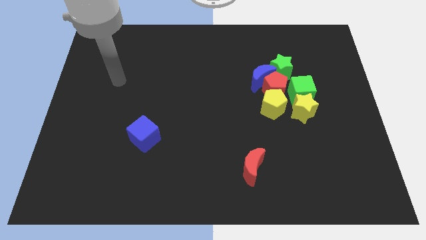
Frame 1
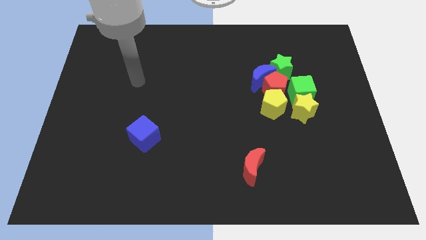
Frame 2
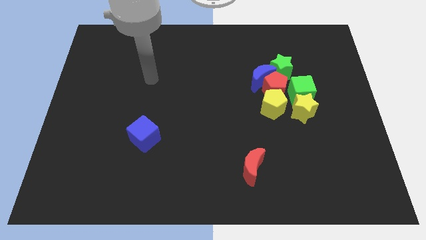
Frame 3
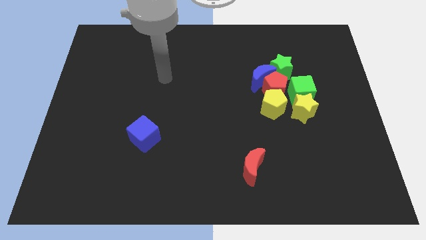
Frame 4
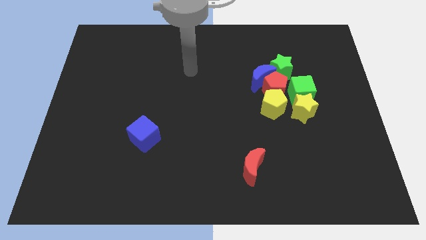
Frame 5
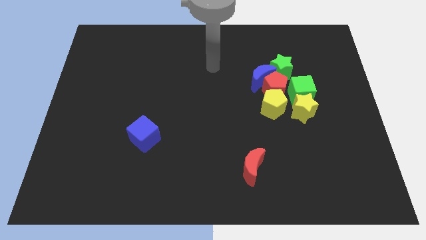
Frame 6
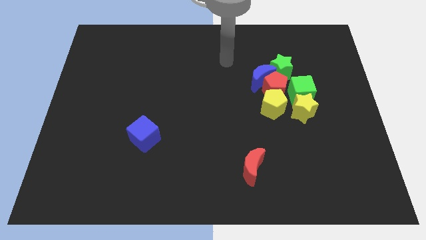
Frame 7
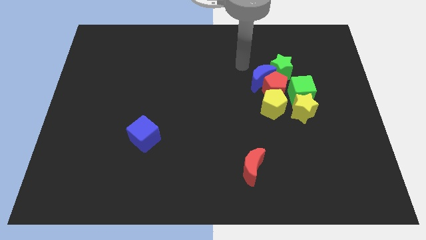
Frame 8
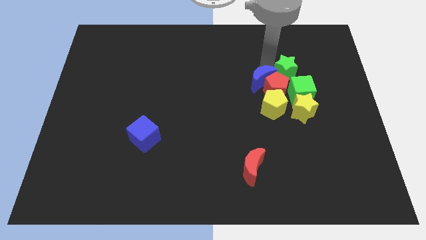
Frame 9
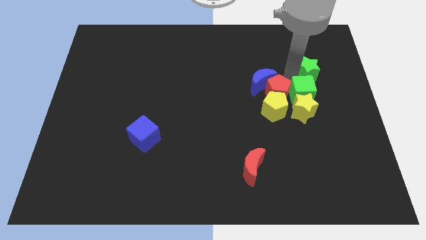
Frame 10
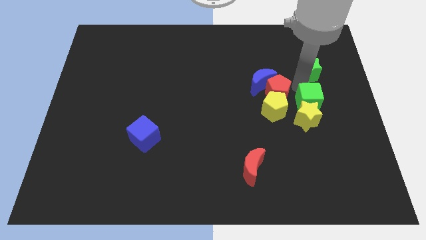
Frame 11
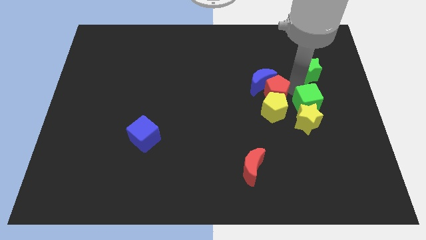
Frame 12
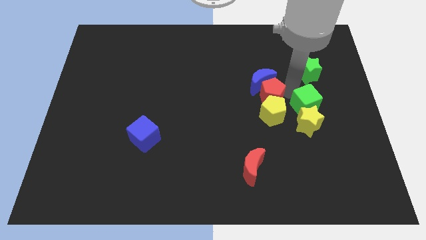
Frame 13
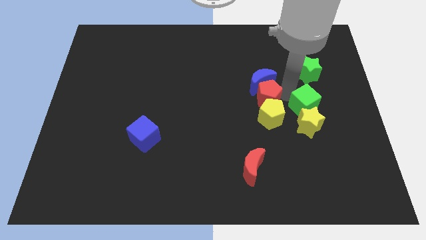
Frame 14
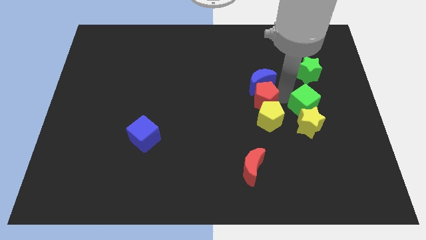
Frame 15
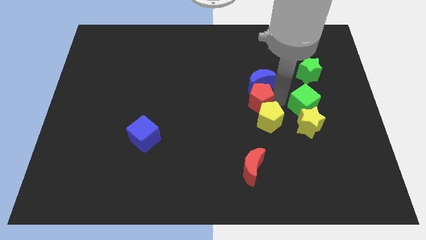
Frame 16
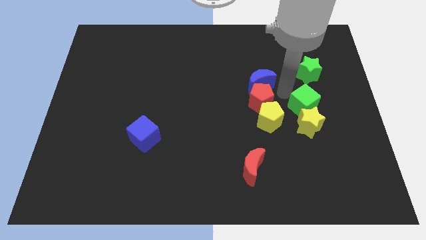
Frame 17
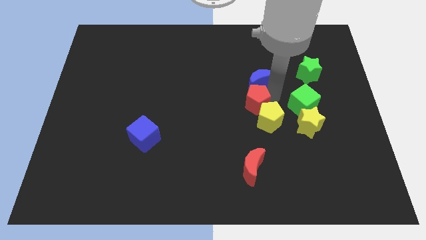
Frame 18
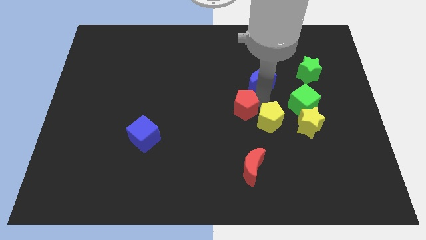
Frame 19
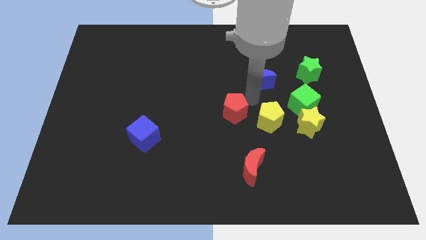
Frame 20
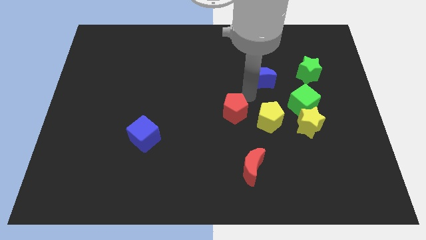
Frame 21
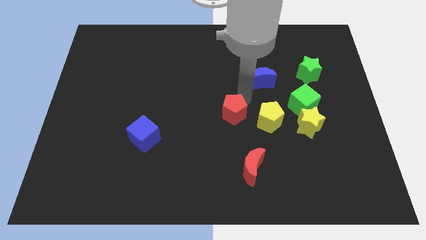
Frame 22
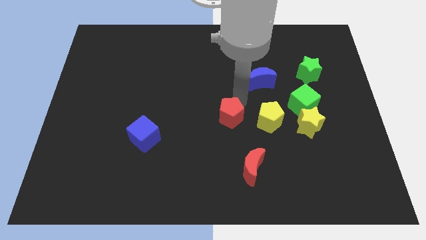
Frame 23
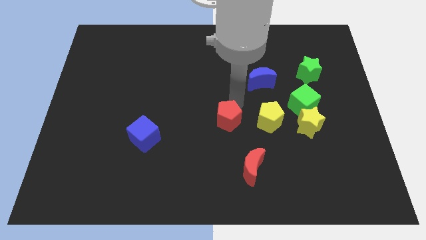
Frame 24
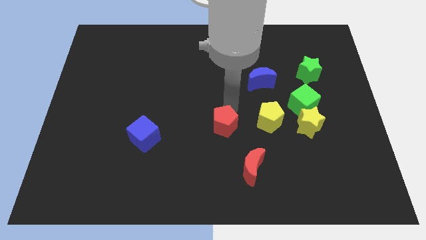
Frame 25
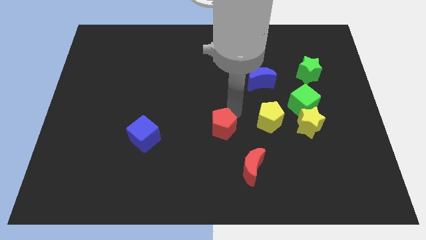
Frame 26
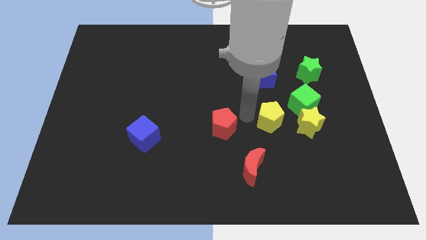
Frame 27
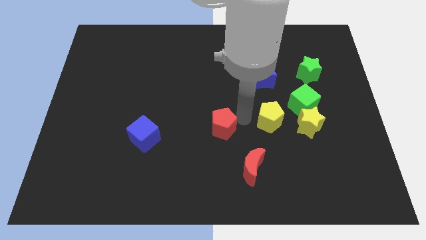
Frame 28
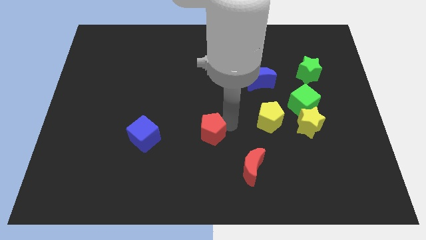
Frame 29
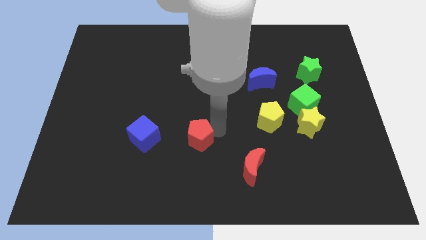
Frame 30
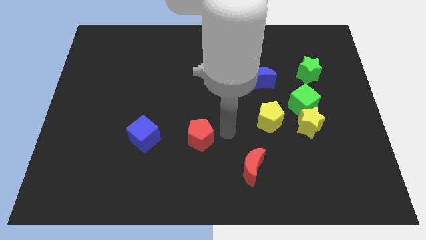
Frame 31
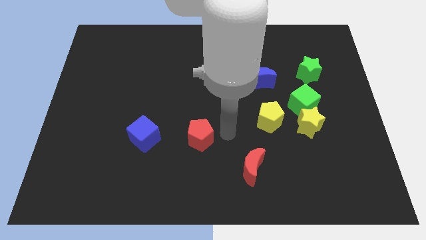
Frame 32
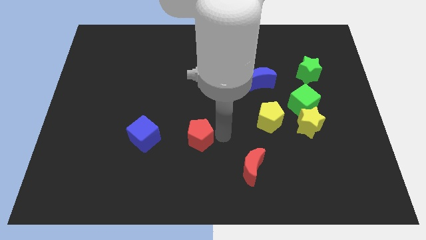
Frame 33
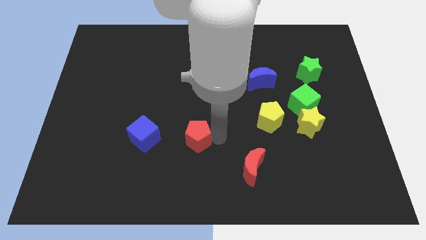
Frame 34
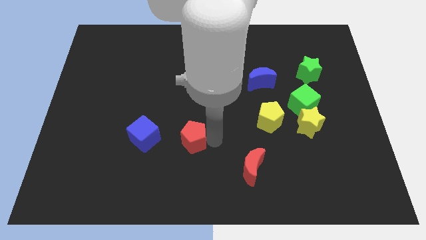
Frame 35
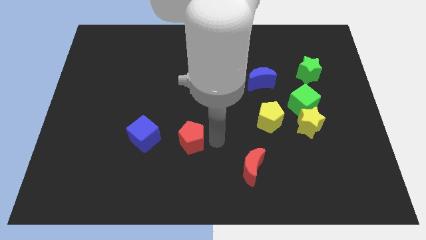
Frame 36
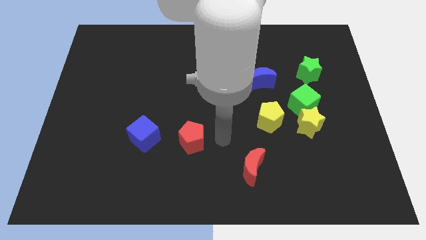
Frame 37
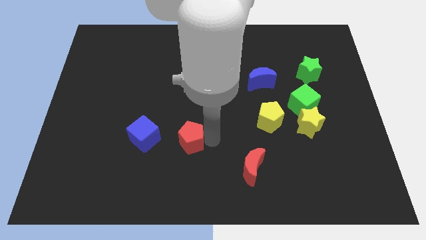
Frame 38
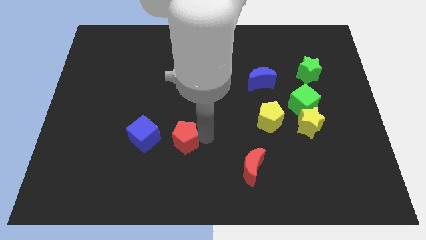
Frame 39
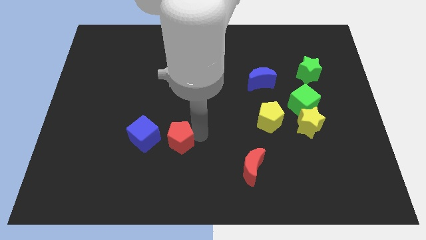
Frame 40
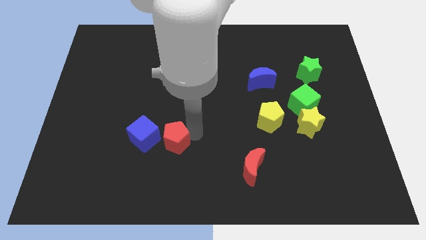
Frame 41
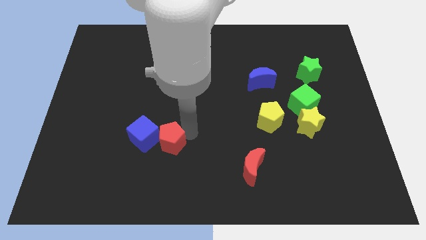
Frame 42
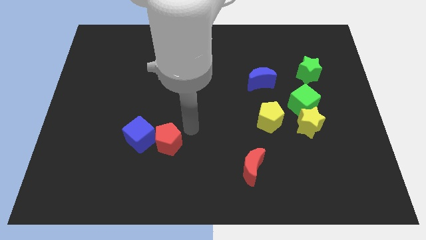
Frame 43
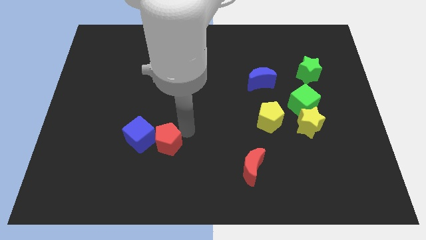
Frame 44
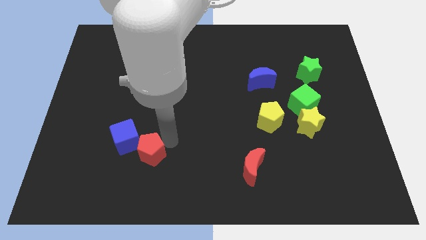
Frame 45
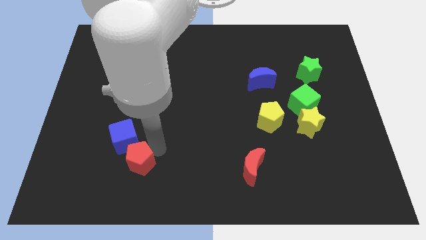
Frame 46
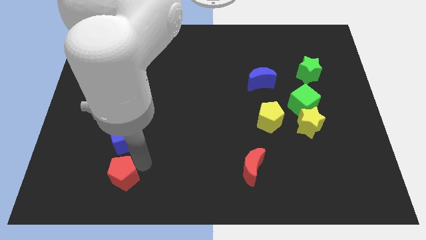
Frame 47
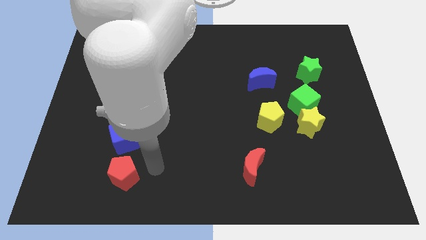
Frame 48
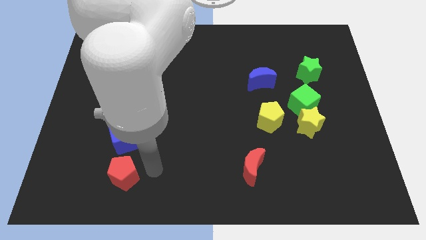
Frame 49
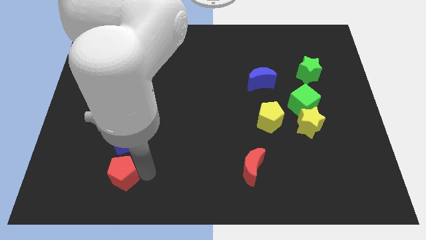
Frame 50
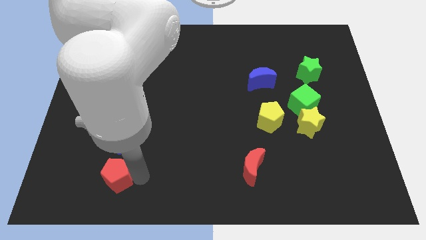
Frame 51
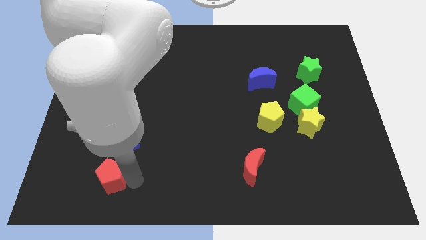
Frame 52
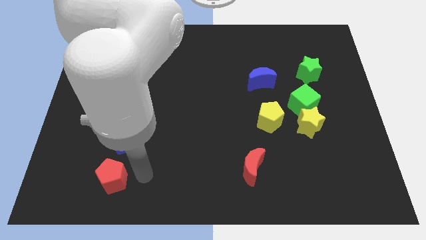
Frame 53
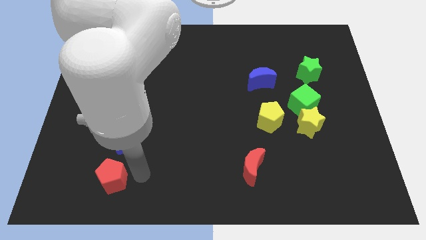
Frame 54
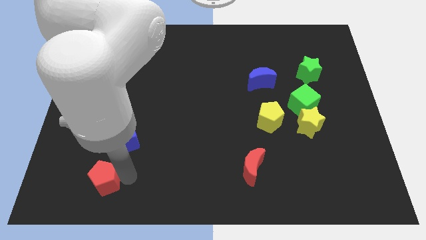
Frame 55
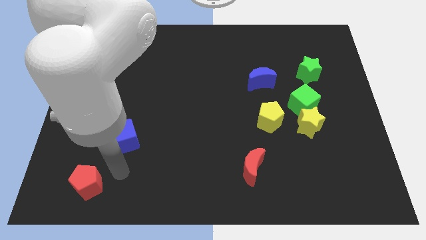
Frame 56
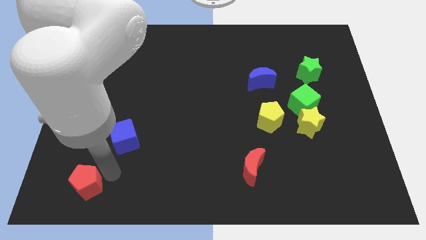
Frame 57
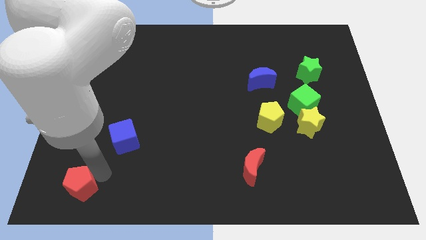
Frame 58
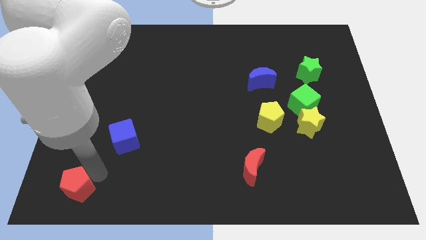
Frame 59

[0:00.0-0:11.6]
push the red pentagon to the bottom left of the board

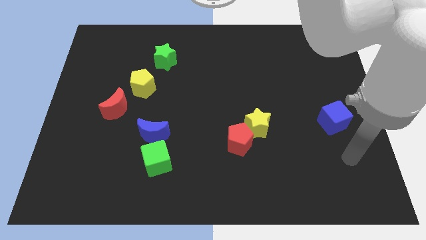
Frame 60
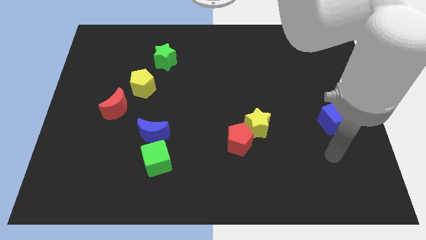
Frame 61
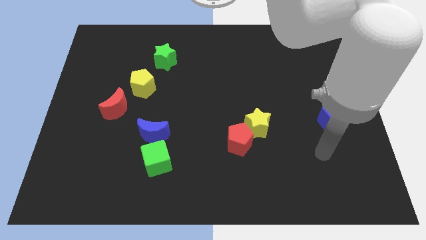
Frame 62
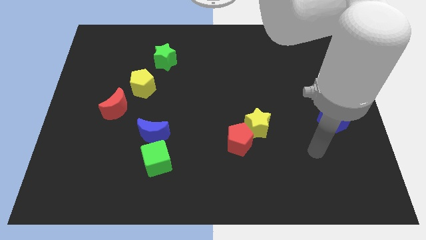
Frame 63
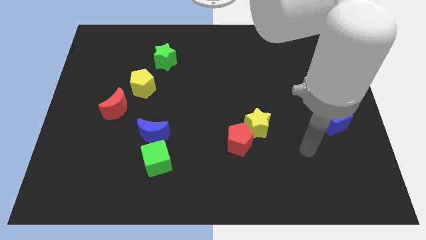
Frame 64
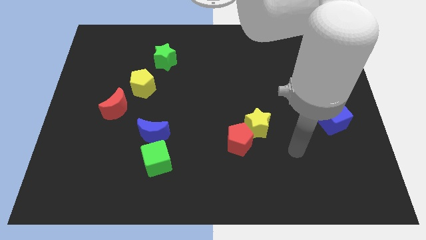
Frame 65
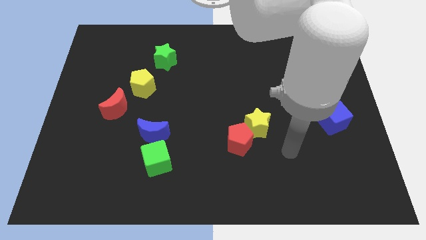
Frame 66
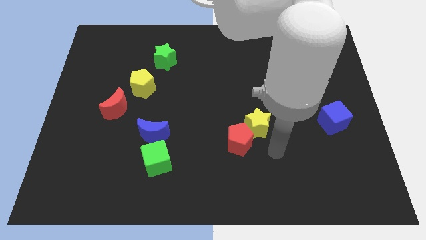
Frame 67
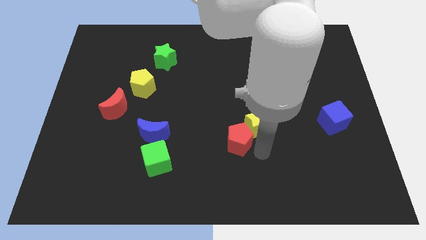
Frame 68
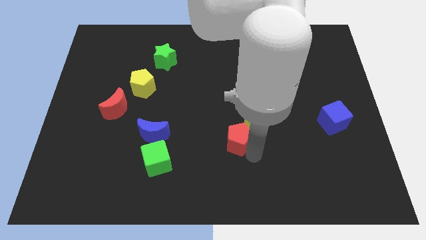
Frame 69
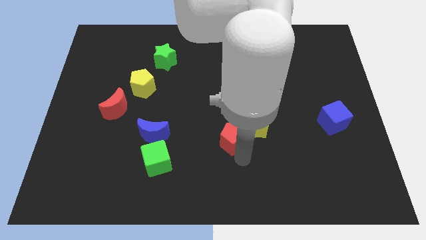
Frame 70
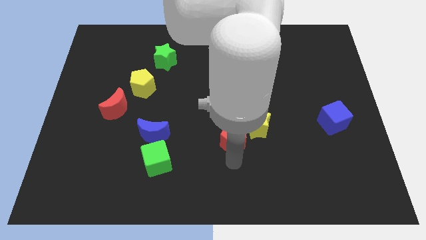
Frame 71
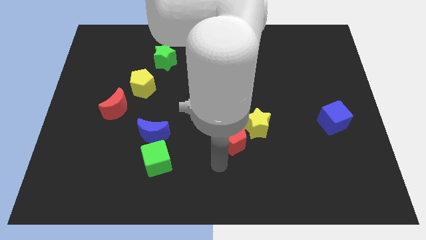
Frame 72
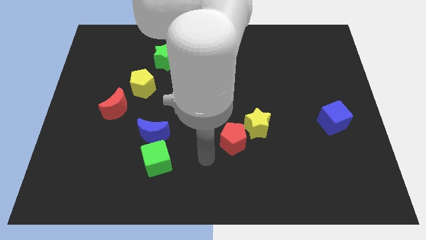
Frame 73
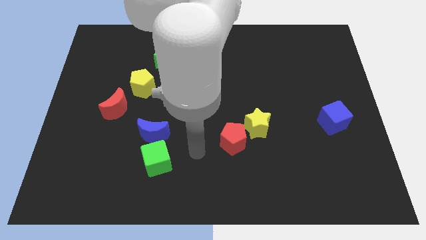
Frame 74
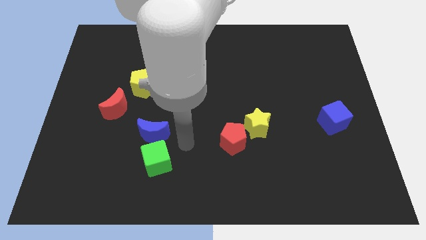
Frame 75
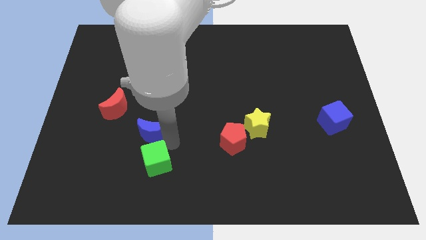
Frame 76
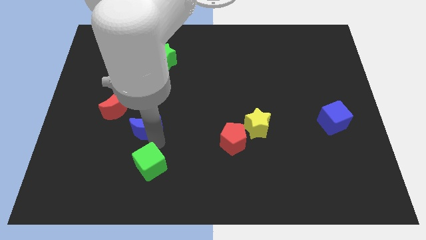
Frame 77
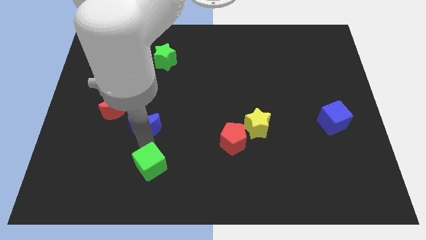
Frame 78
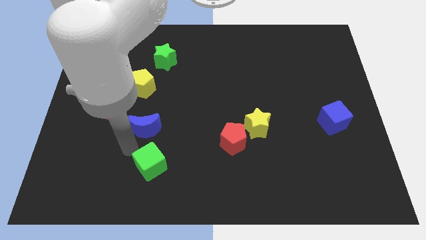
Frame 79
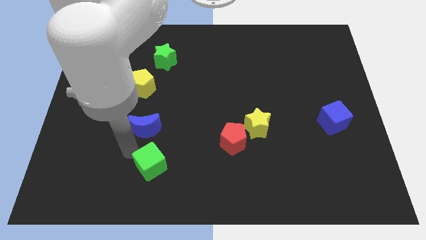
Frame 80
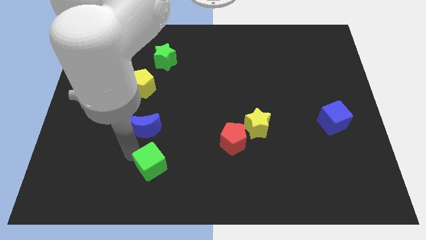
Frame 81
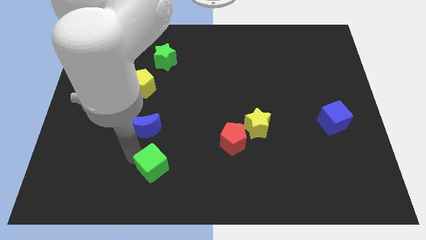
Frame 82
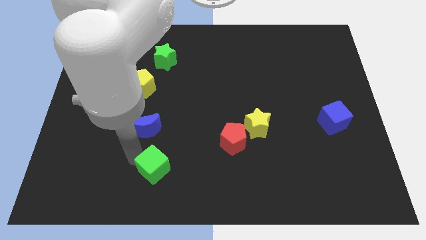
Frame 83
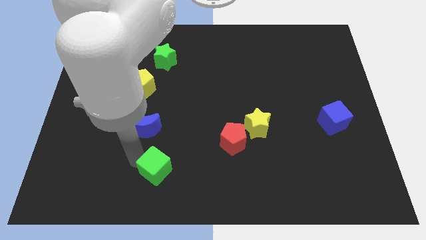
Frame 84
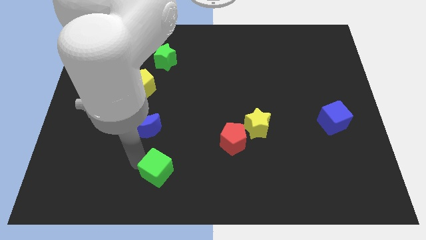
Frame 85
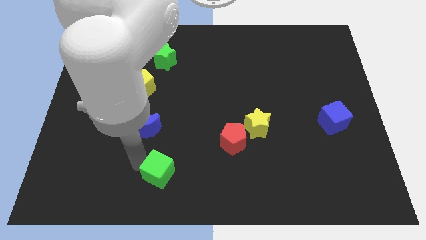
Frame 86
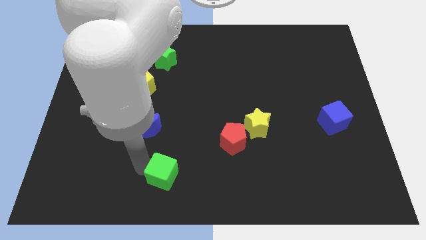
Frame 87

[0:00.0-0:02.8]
slide the green cube to the bottom side
